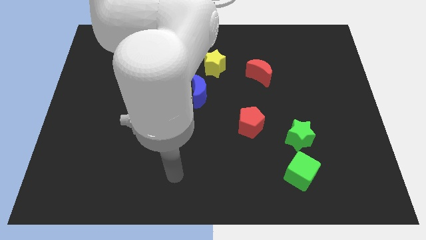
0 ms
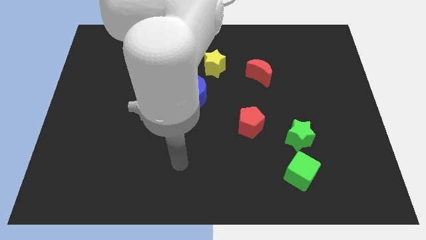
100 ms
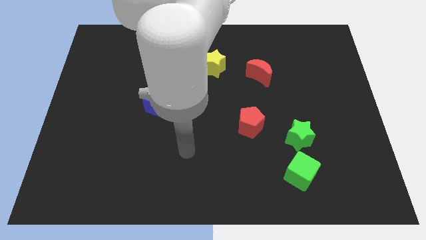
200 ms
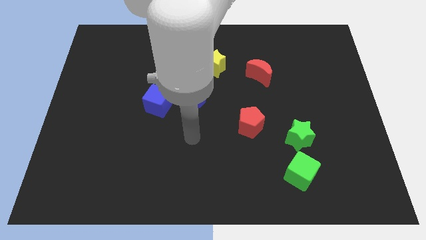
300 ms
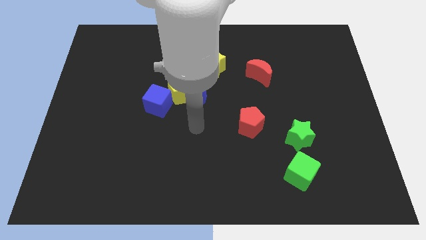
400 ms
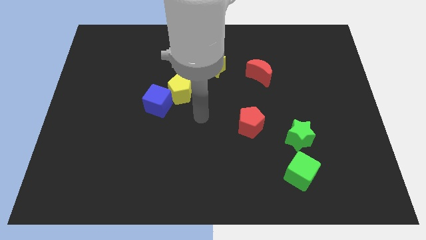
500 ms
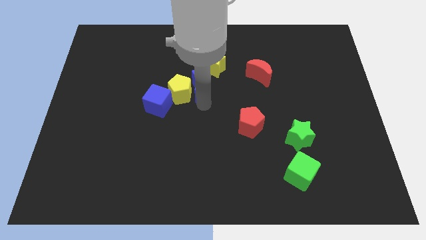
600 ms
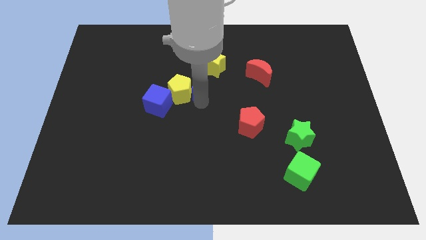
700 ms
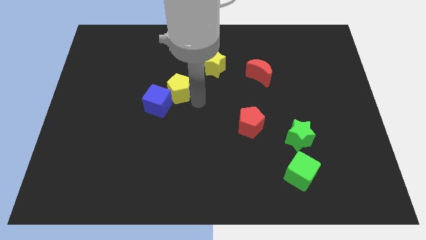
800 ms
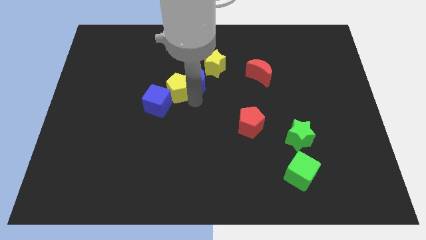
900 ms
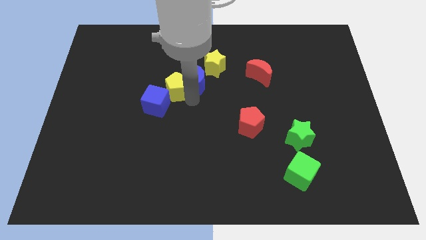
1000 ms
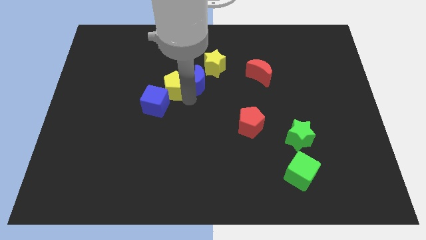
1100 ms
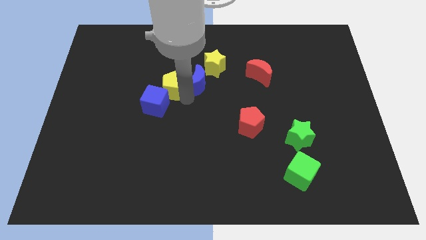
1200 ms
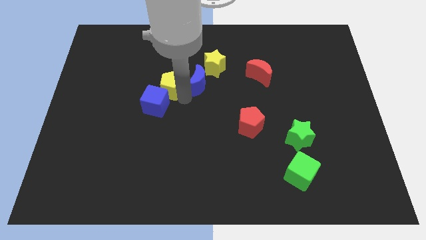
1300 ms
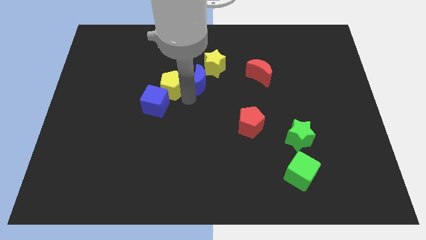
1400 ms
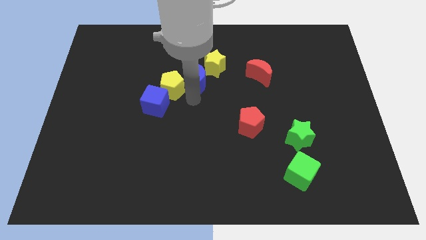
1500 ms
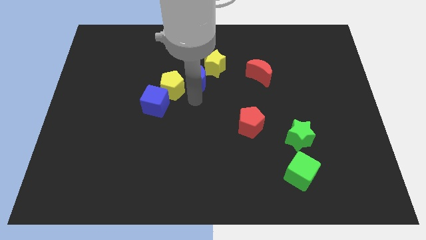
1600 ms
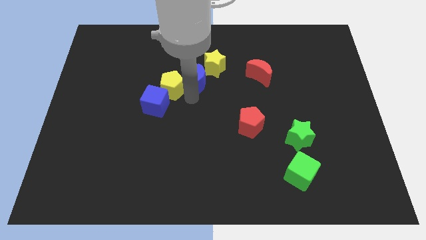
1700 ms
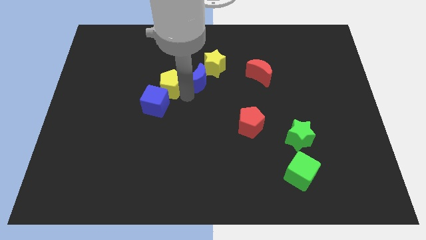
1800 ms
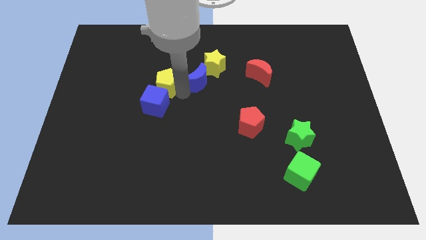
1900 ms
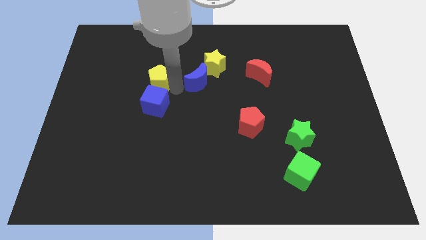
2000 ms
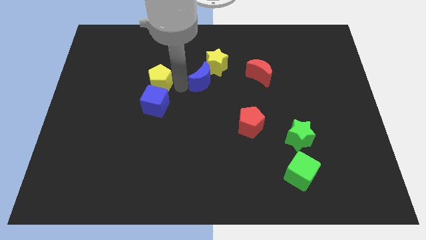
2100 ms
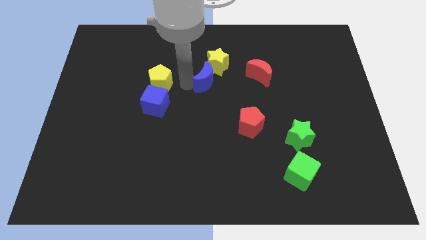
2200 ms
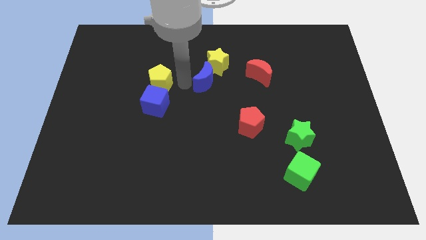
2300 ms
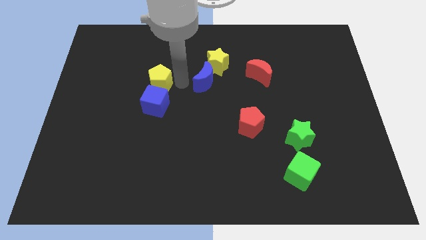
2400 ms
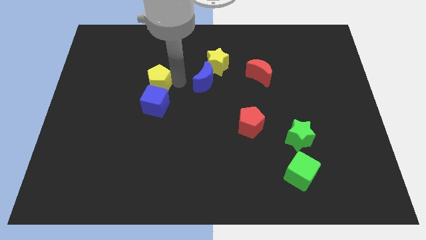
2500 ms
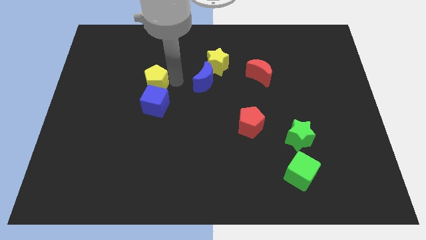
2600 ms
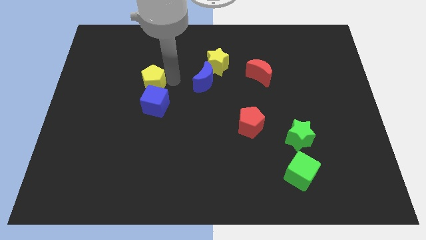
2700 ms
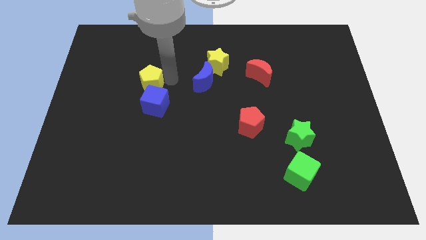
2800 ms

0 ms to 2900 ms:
slide the yellow pentagon to the left a bit

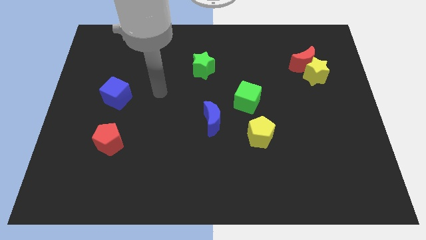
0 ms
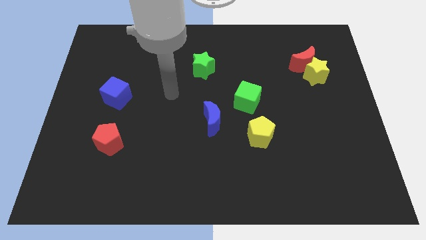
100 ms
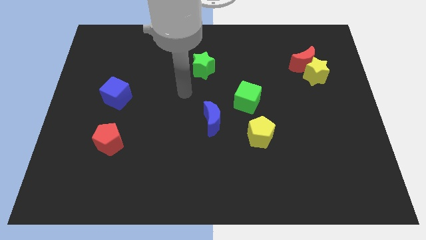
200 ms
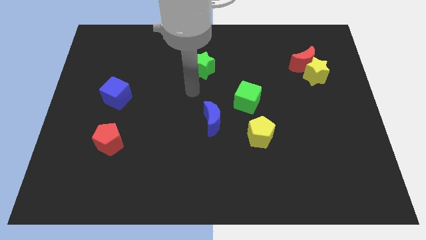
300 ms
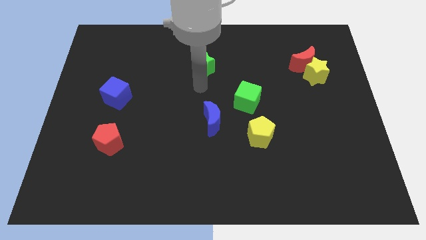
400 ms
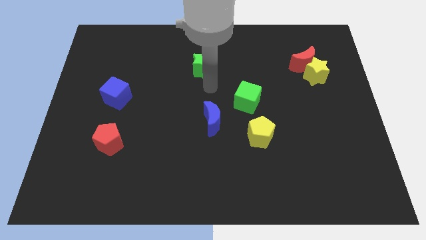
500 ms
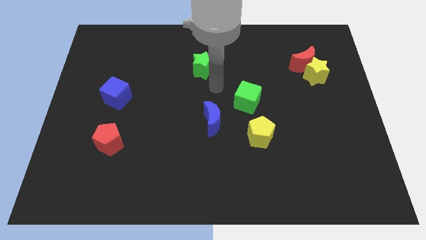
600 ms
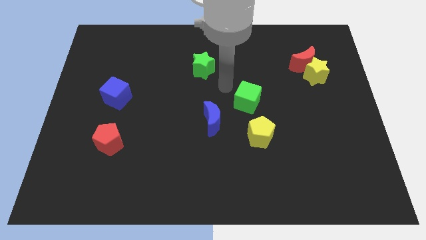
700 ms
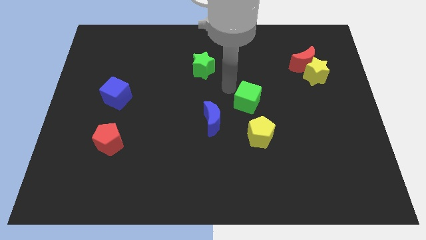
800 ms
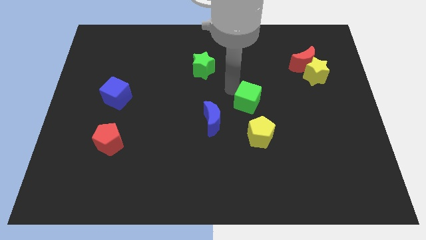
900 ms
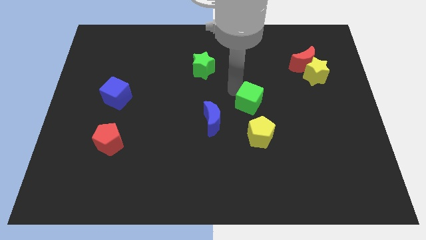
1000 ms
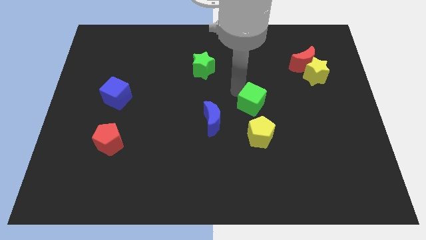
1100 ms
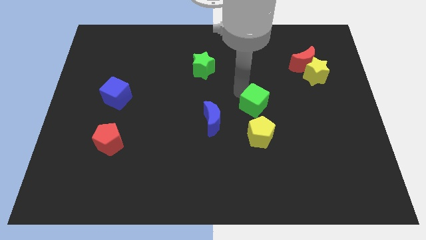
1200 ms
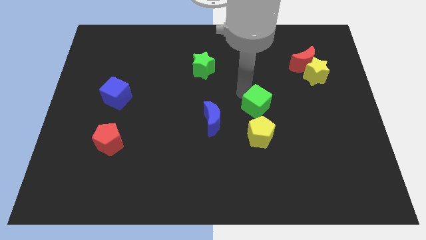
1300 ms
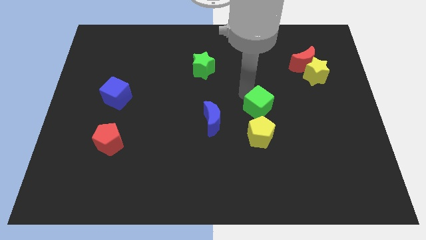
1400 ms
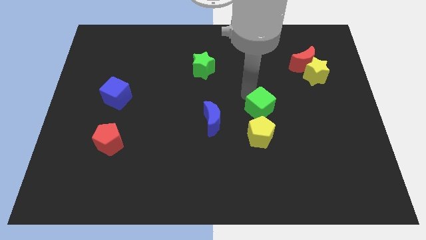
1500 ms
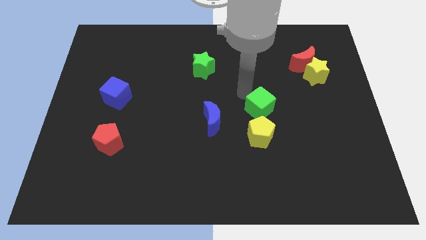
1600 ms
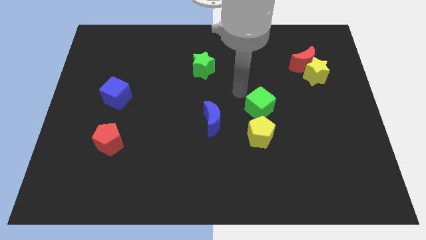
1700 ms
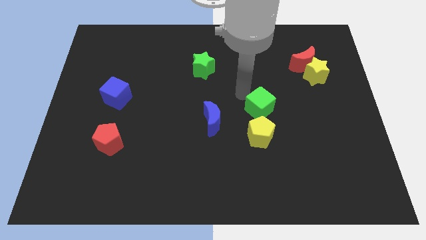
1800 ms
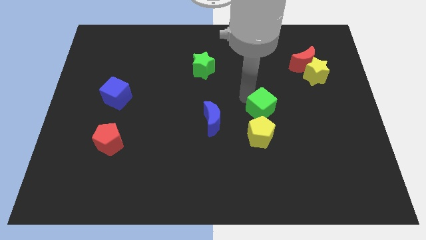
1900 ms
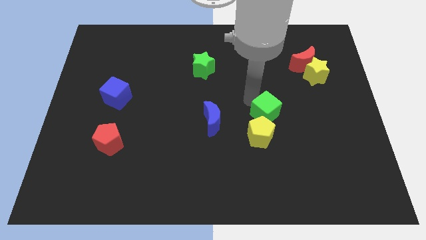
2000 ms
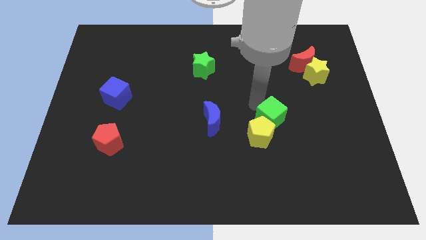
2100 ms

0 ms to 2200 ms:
push the green cube a little downwards and to the right

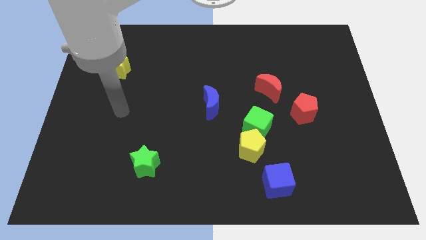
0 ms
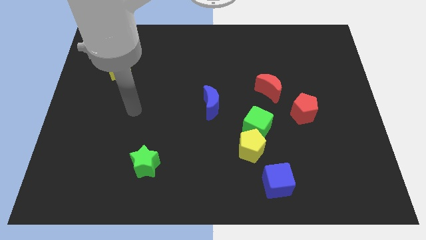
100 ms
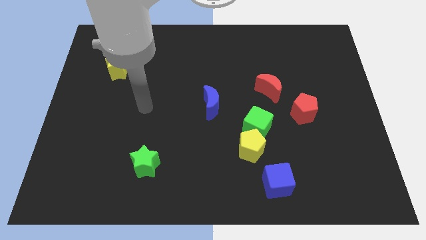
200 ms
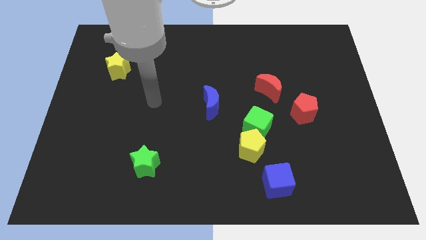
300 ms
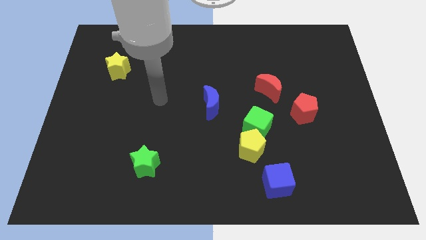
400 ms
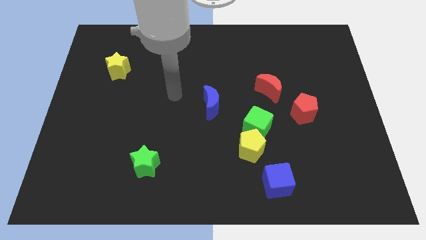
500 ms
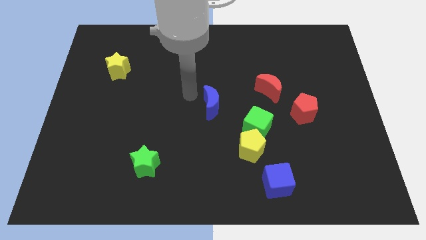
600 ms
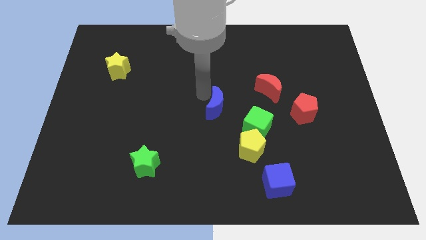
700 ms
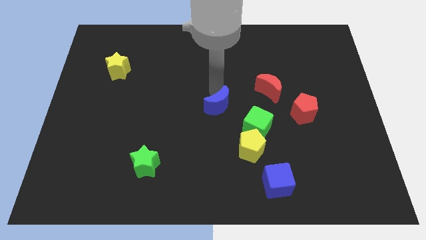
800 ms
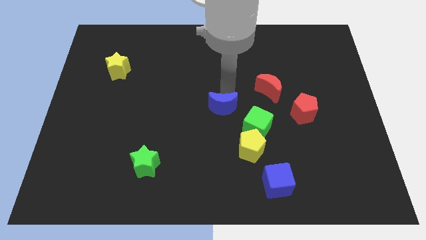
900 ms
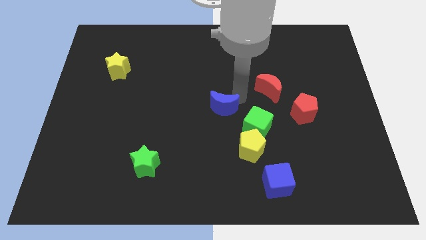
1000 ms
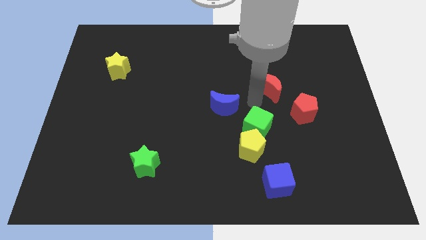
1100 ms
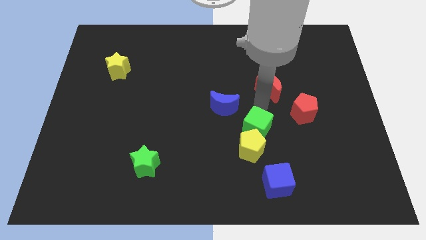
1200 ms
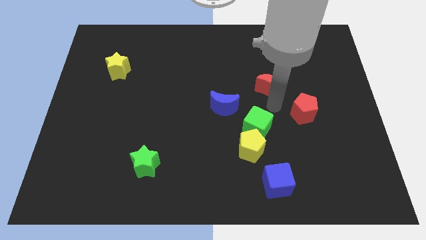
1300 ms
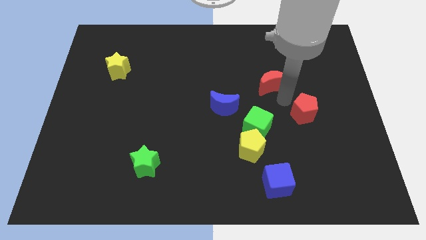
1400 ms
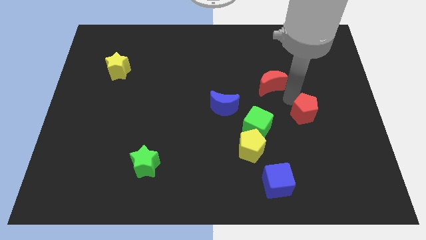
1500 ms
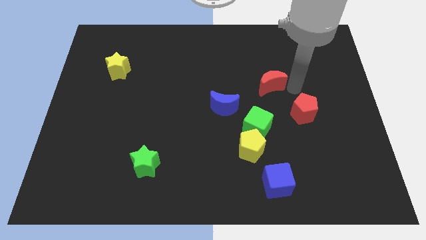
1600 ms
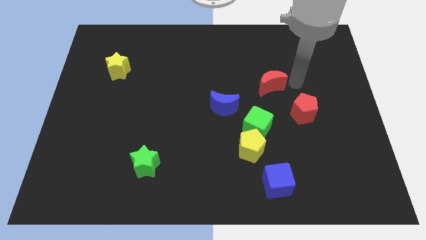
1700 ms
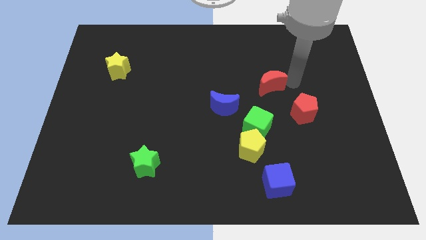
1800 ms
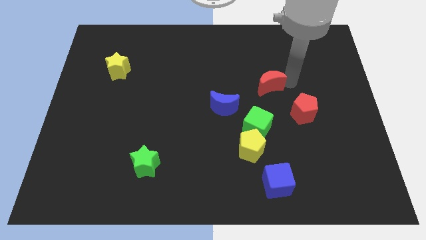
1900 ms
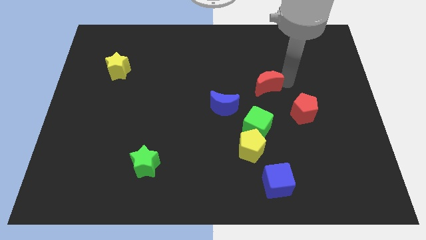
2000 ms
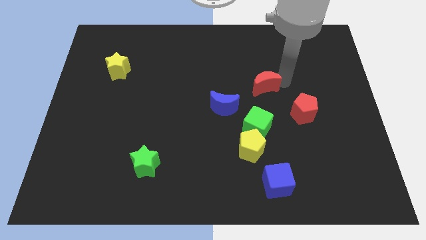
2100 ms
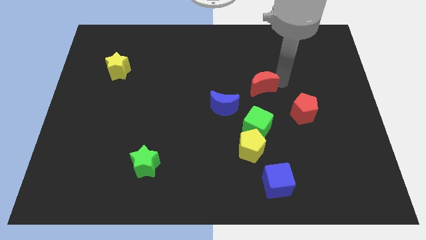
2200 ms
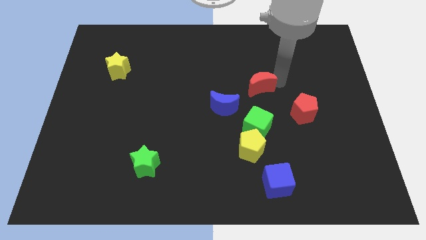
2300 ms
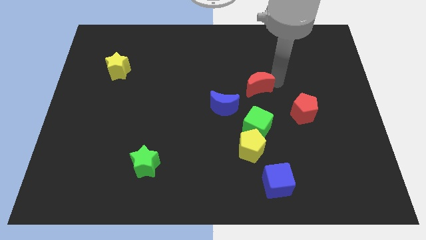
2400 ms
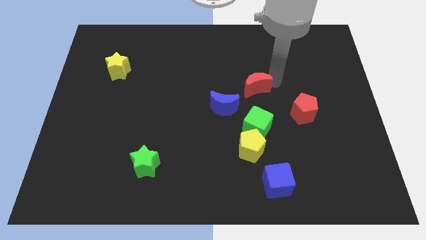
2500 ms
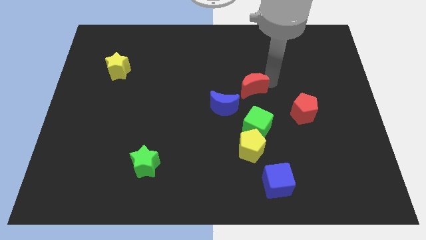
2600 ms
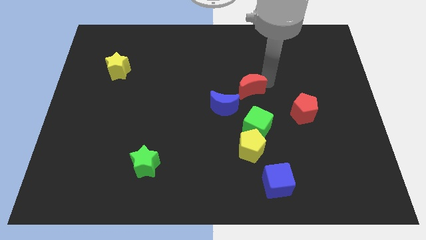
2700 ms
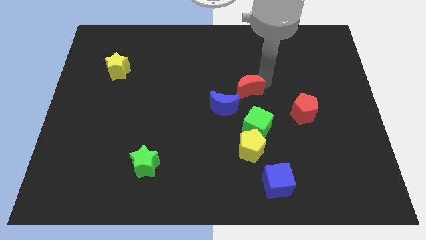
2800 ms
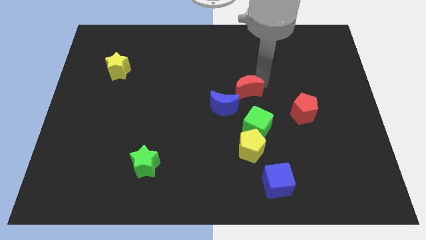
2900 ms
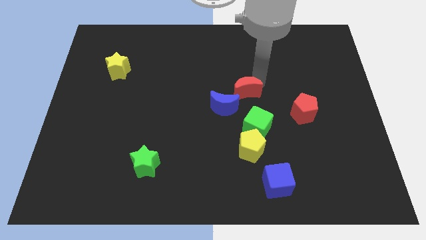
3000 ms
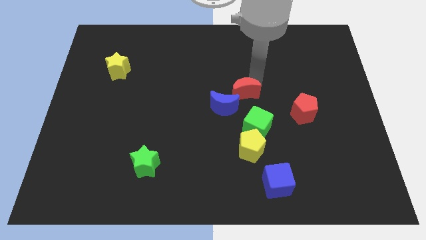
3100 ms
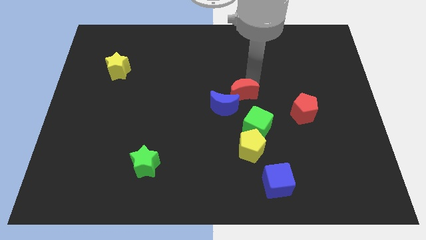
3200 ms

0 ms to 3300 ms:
slightly push the red moon to the left
